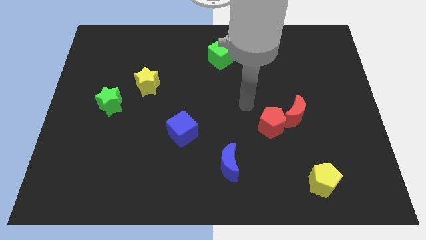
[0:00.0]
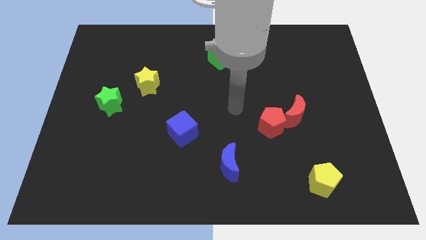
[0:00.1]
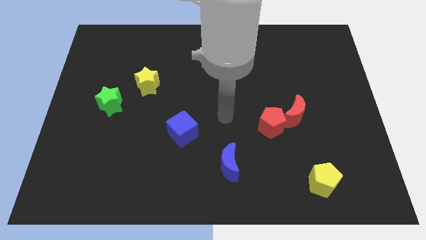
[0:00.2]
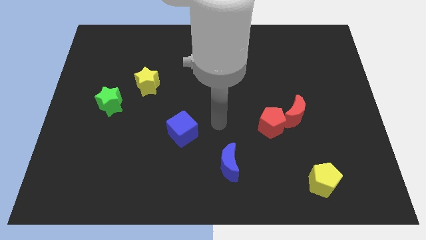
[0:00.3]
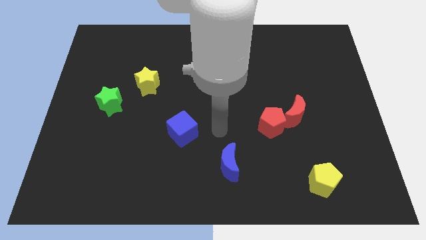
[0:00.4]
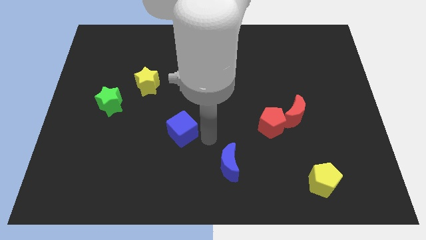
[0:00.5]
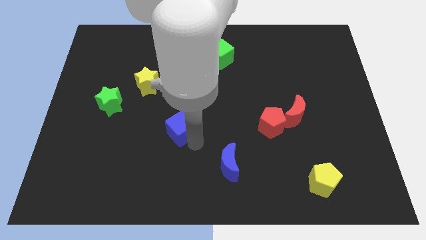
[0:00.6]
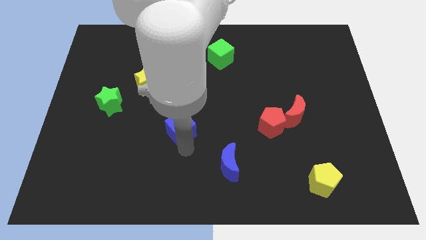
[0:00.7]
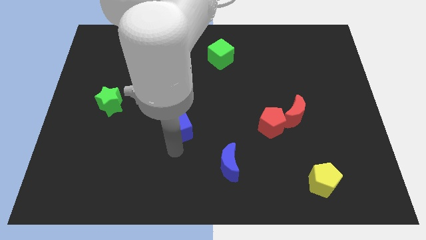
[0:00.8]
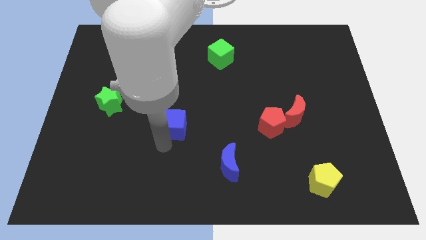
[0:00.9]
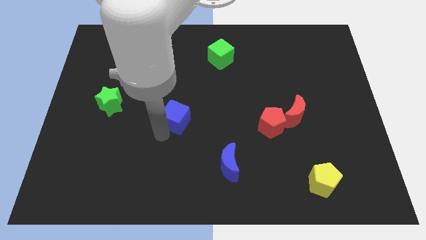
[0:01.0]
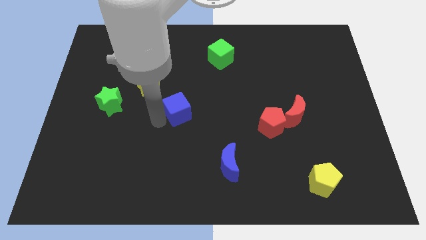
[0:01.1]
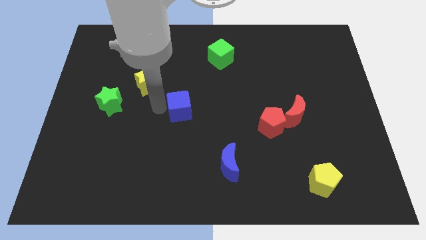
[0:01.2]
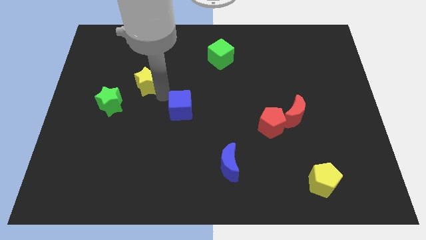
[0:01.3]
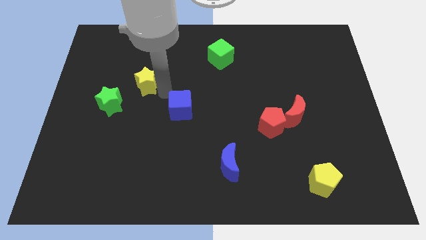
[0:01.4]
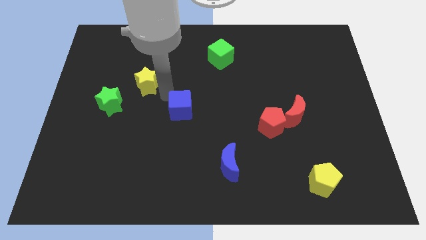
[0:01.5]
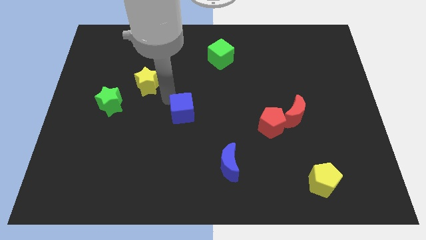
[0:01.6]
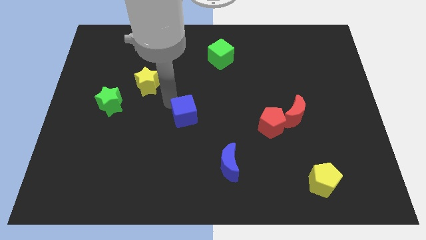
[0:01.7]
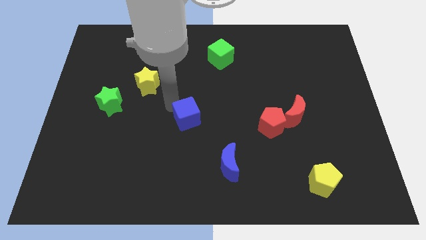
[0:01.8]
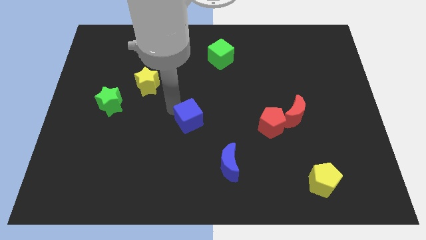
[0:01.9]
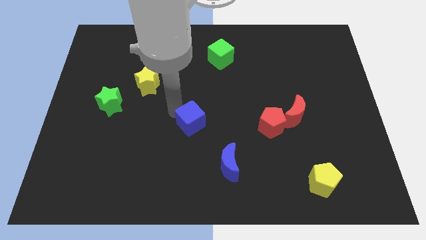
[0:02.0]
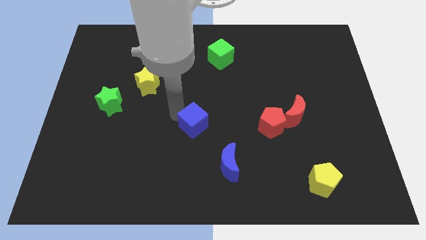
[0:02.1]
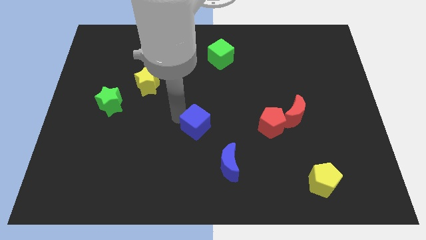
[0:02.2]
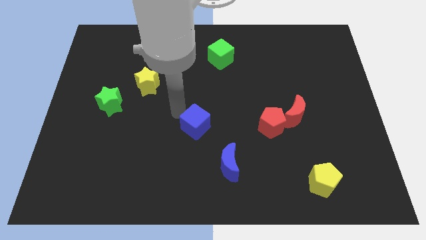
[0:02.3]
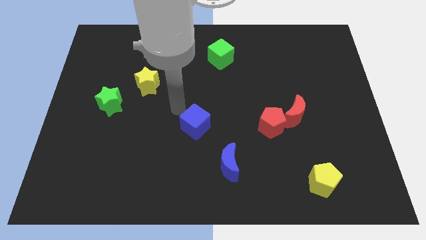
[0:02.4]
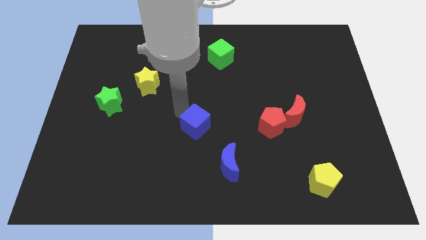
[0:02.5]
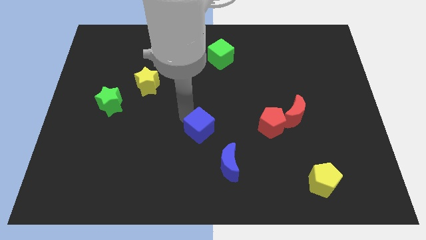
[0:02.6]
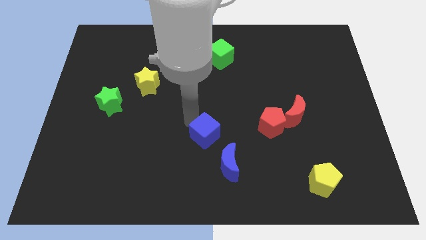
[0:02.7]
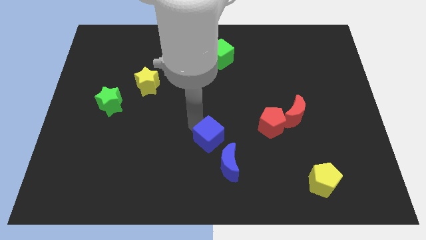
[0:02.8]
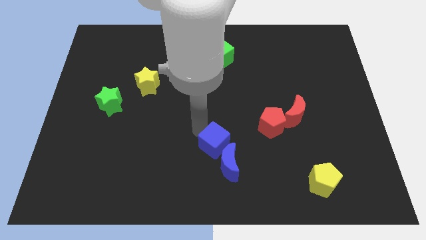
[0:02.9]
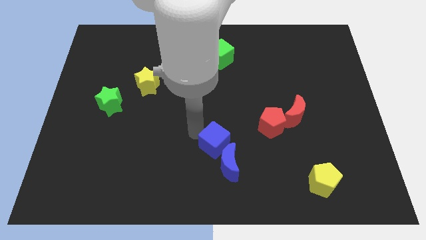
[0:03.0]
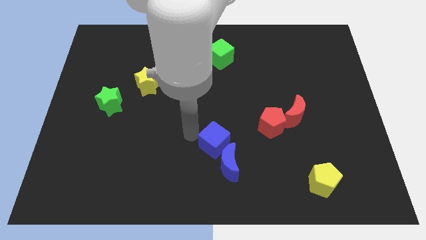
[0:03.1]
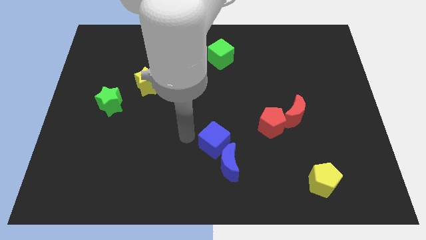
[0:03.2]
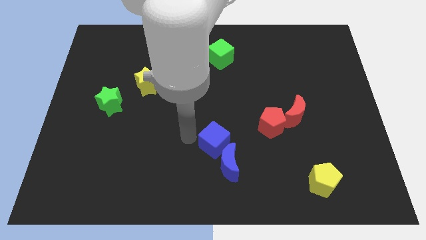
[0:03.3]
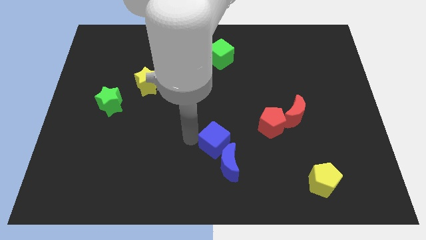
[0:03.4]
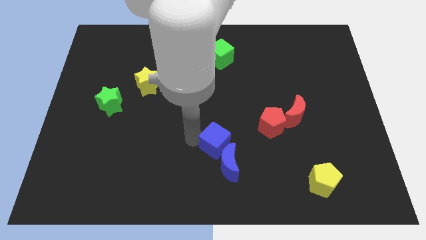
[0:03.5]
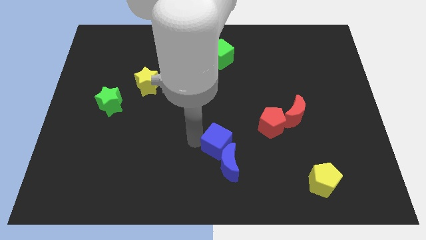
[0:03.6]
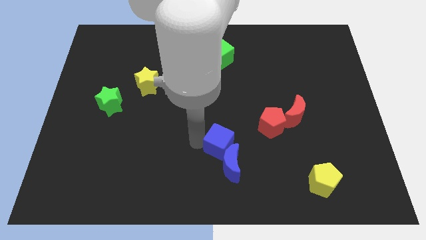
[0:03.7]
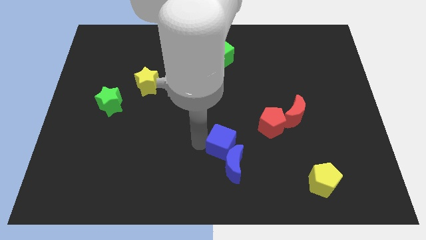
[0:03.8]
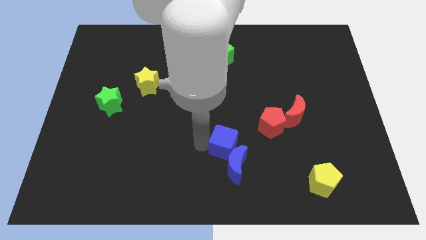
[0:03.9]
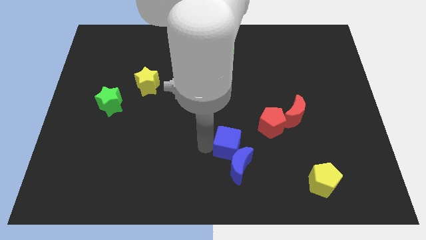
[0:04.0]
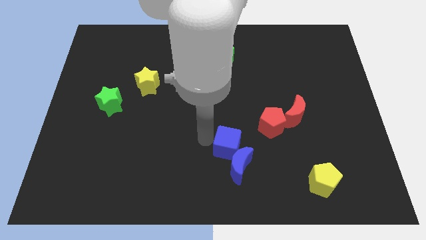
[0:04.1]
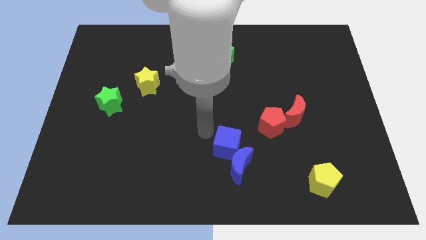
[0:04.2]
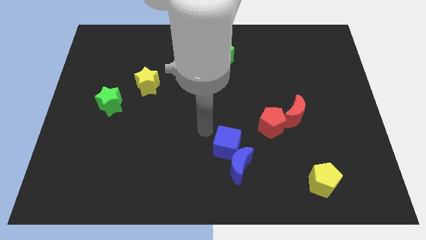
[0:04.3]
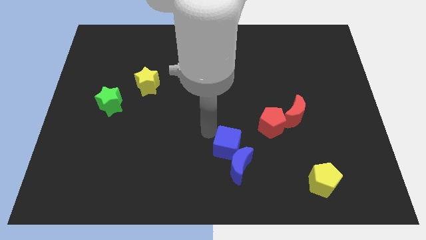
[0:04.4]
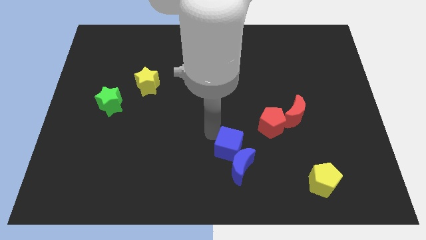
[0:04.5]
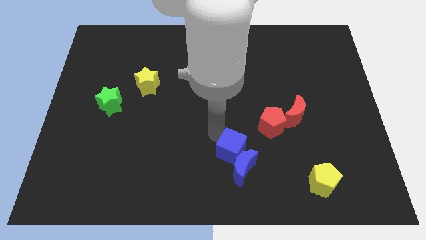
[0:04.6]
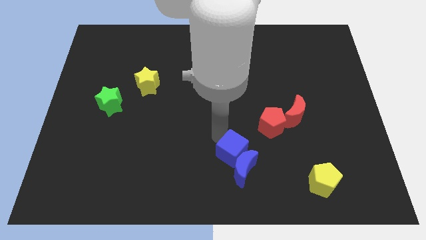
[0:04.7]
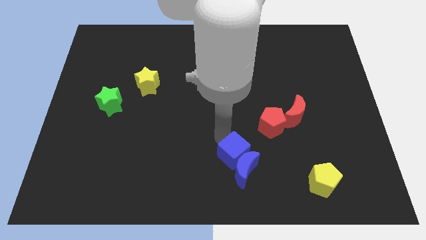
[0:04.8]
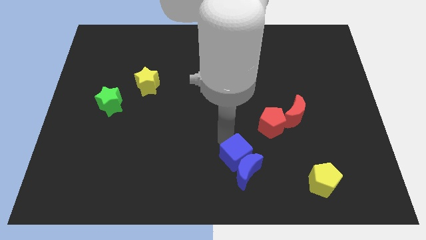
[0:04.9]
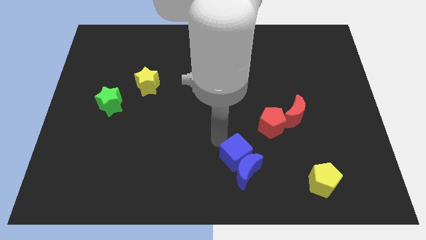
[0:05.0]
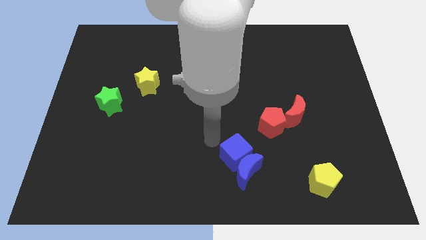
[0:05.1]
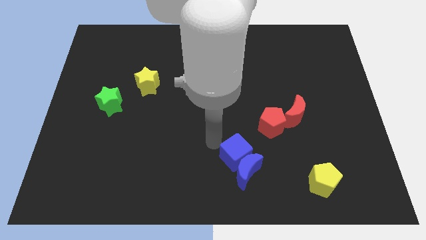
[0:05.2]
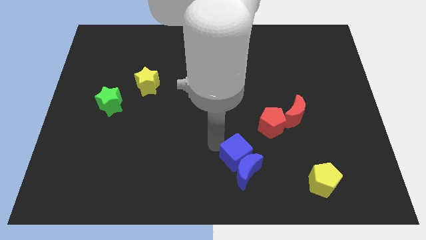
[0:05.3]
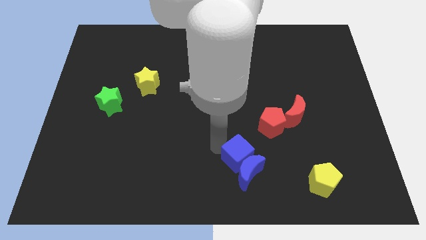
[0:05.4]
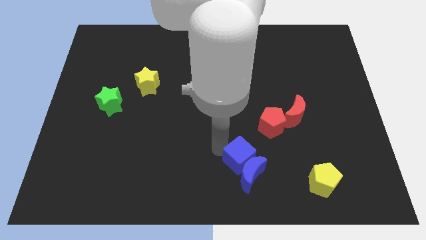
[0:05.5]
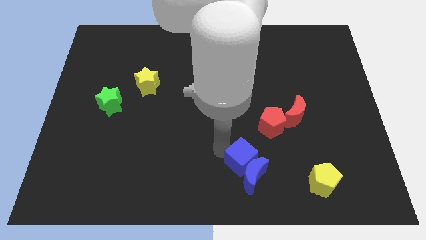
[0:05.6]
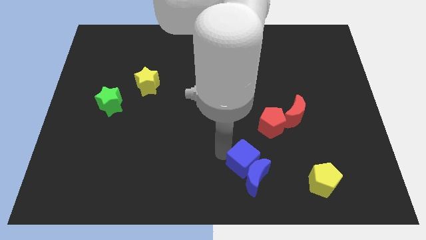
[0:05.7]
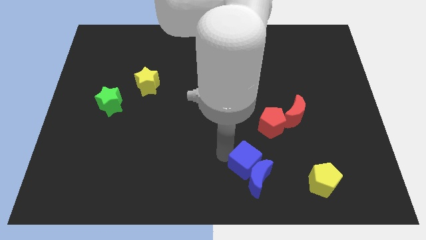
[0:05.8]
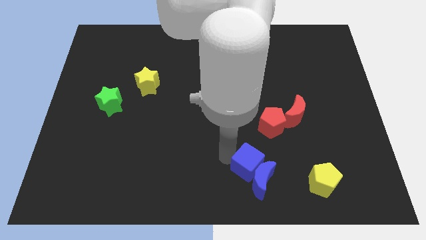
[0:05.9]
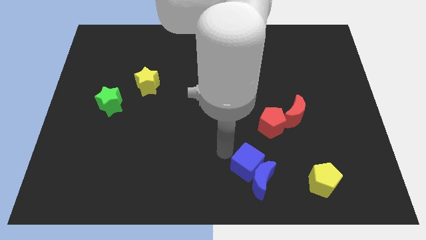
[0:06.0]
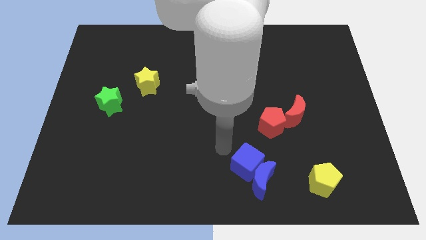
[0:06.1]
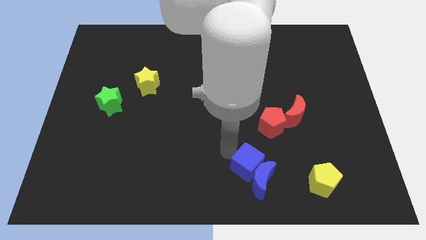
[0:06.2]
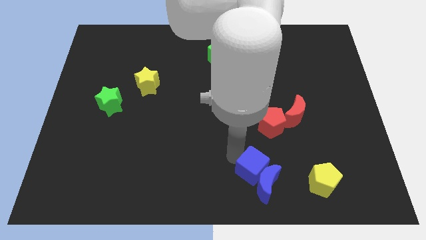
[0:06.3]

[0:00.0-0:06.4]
push the blue cube to the left of the yellow pentagon

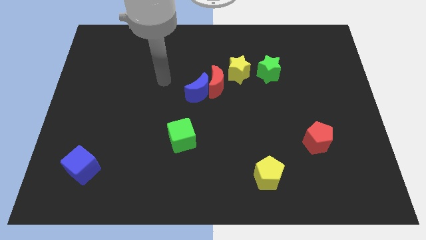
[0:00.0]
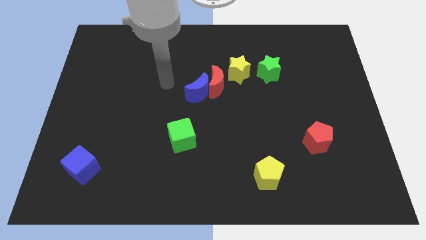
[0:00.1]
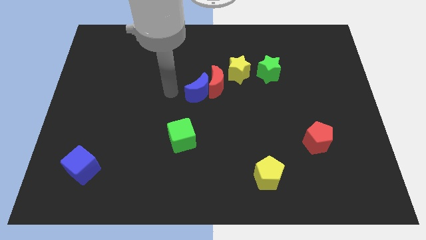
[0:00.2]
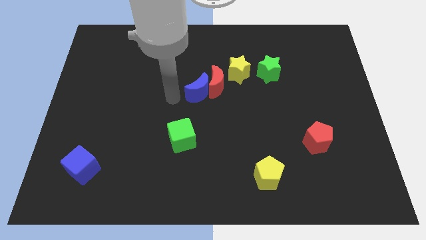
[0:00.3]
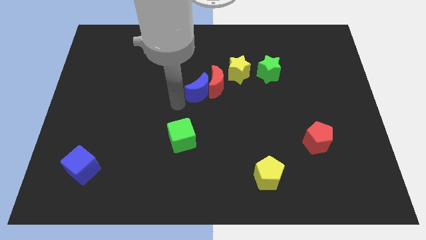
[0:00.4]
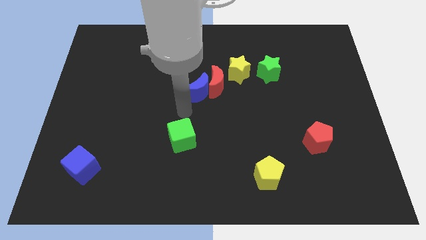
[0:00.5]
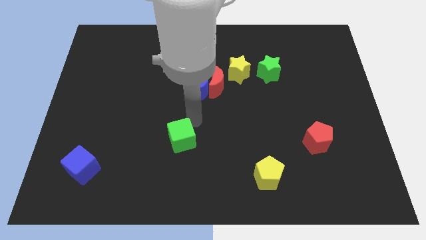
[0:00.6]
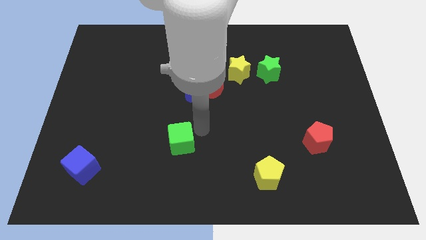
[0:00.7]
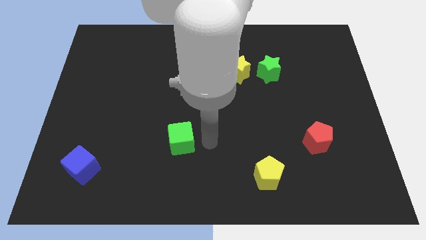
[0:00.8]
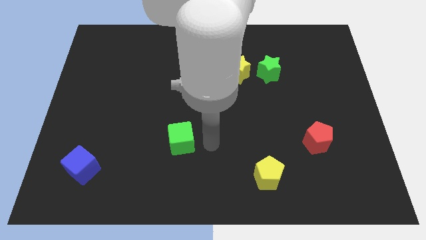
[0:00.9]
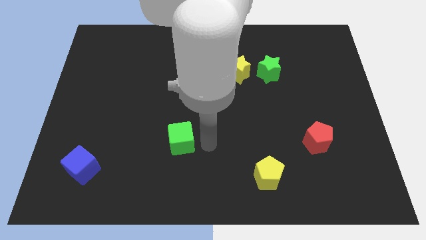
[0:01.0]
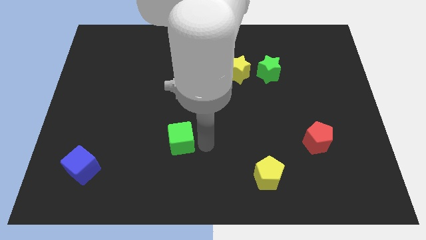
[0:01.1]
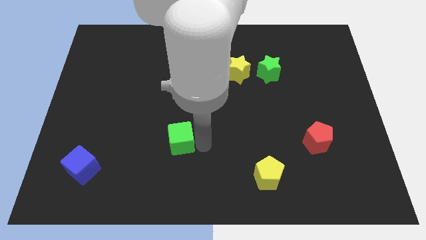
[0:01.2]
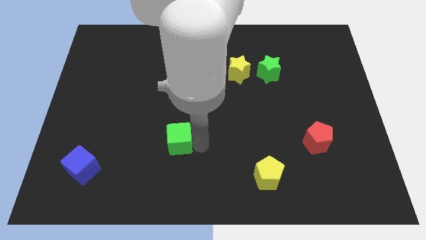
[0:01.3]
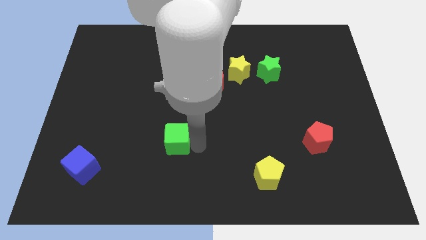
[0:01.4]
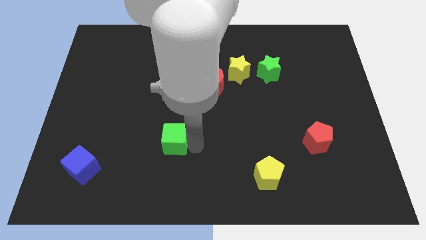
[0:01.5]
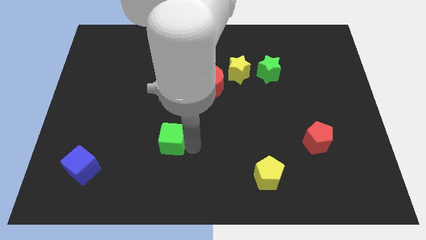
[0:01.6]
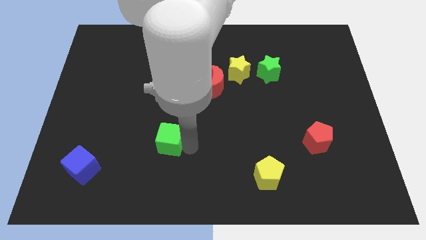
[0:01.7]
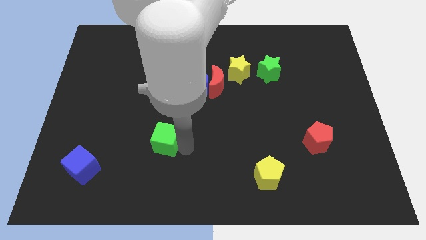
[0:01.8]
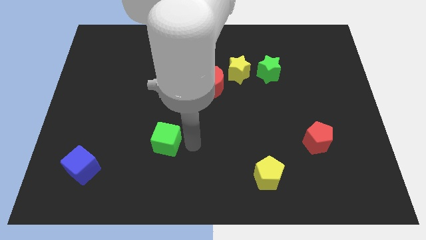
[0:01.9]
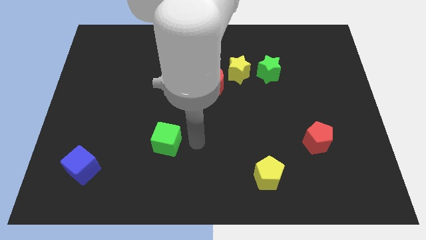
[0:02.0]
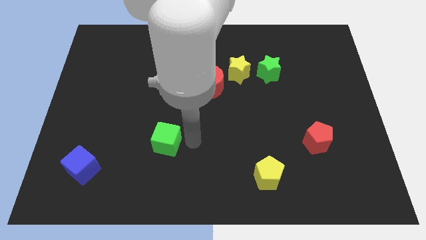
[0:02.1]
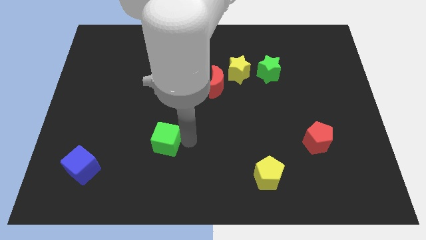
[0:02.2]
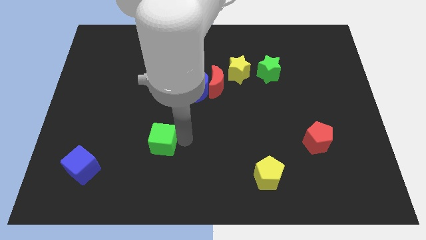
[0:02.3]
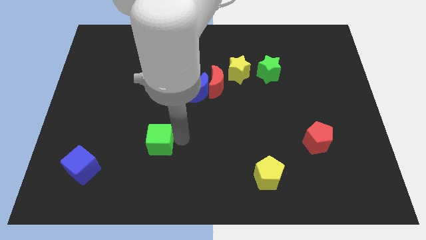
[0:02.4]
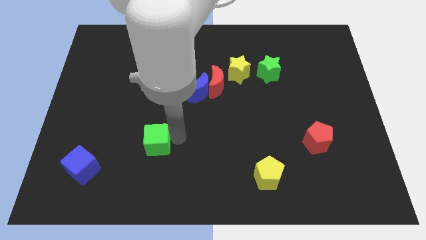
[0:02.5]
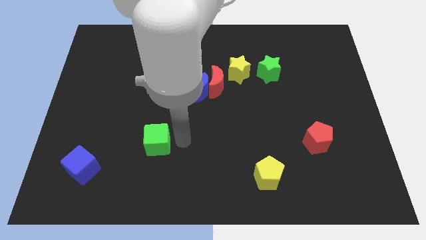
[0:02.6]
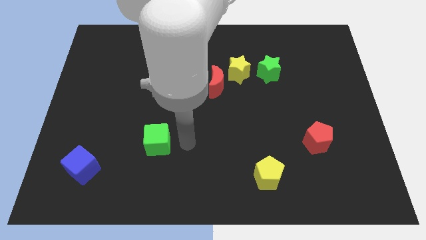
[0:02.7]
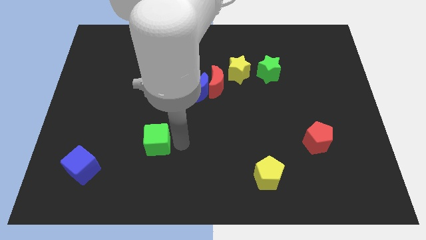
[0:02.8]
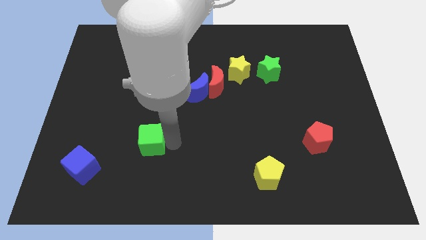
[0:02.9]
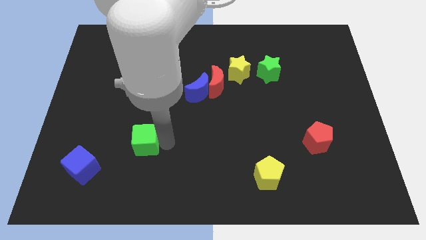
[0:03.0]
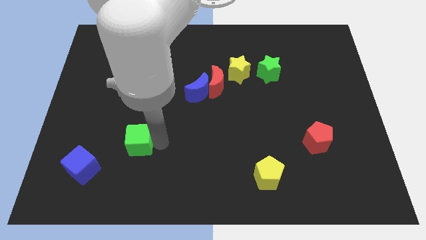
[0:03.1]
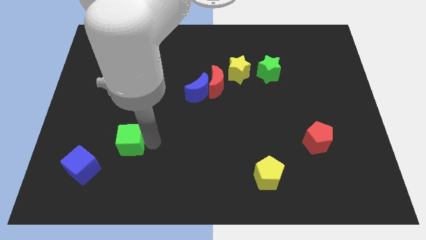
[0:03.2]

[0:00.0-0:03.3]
slide the green cube to the top right side of the blue cube
